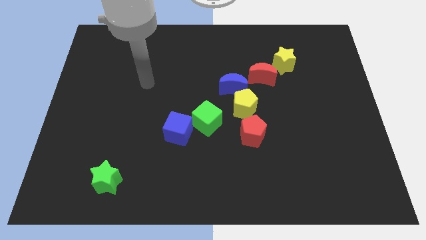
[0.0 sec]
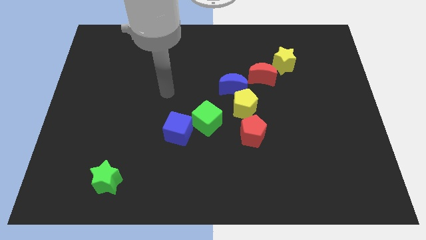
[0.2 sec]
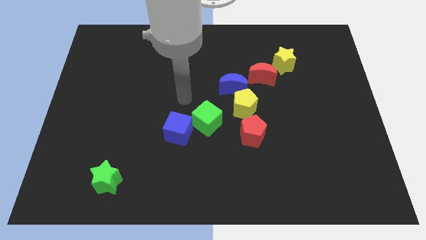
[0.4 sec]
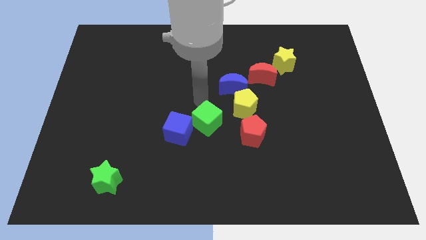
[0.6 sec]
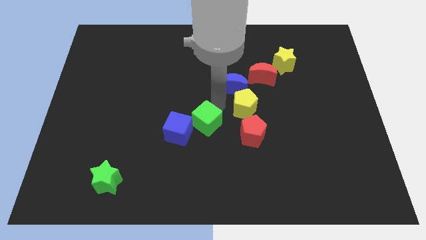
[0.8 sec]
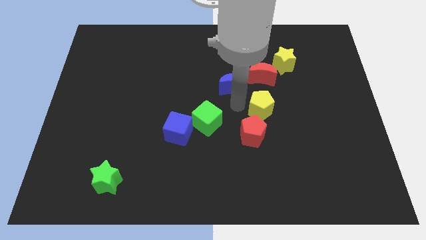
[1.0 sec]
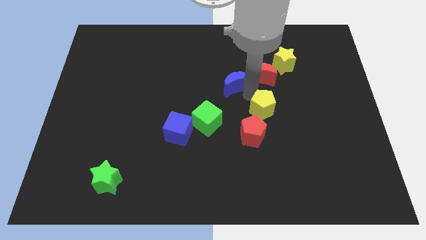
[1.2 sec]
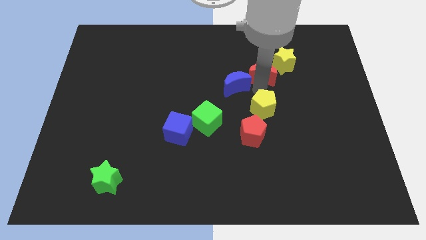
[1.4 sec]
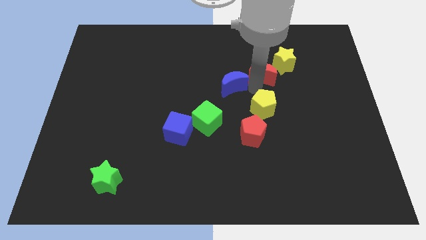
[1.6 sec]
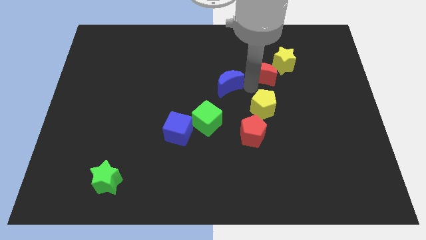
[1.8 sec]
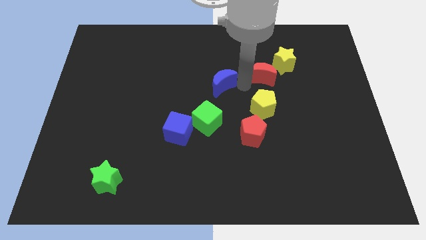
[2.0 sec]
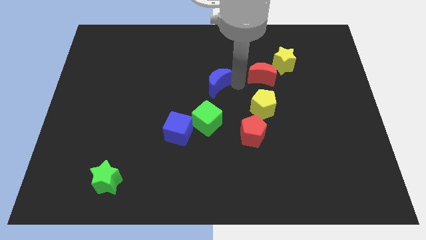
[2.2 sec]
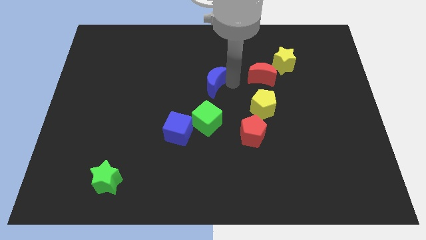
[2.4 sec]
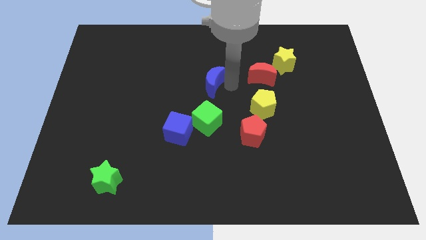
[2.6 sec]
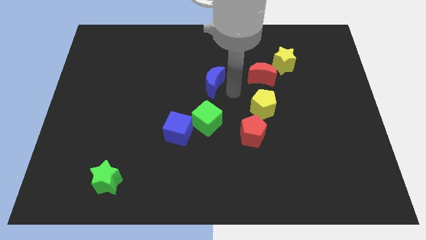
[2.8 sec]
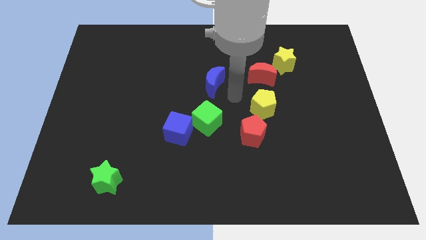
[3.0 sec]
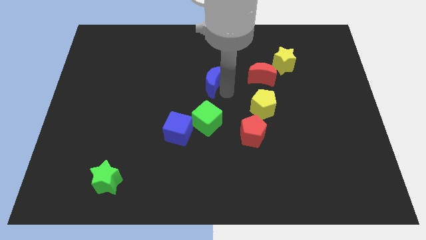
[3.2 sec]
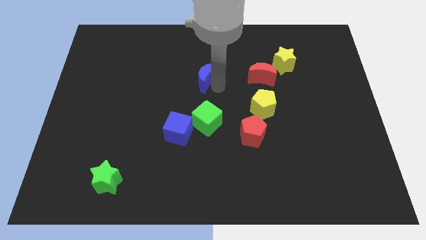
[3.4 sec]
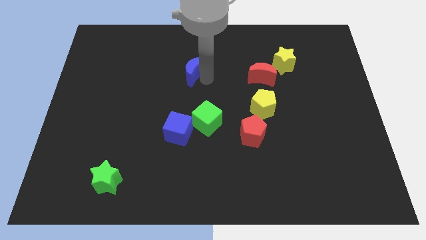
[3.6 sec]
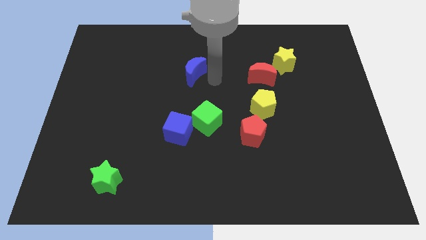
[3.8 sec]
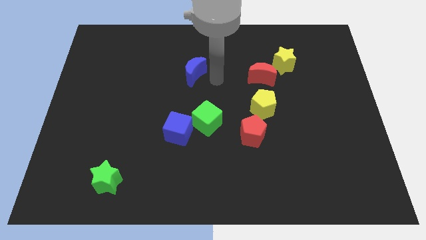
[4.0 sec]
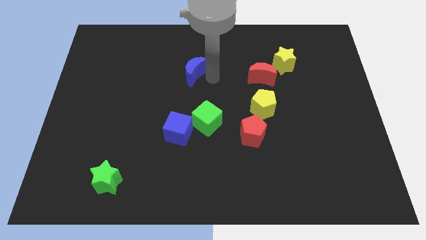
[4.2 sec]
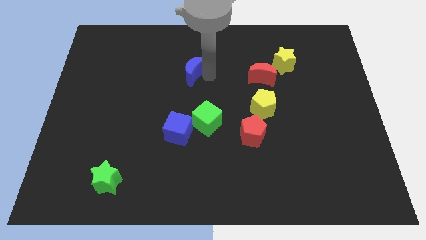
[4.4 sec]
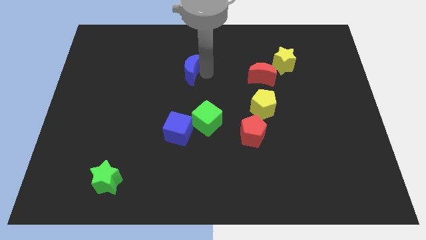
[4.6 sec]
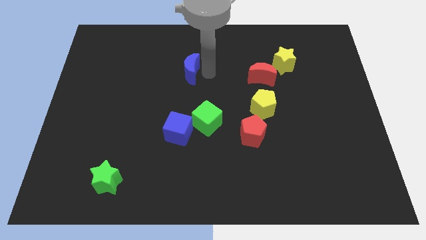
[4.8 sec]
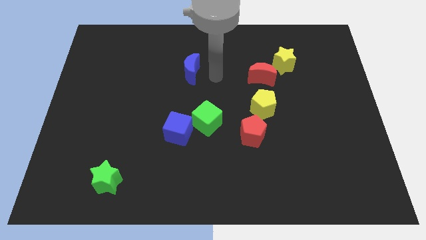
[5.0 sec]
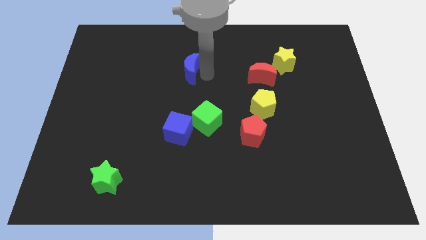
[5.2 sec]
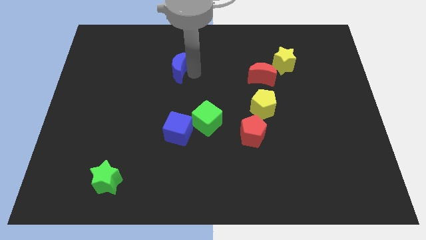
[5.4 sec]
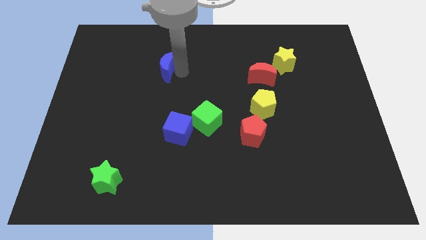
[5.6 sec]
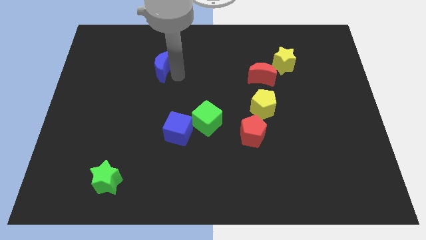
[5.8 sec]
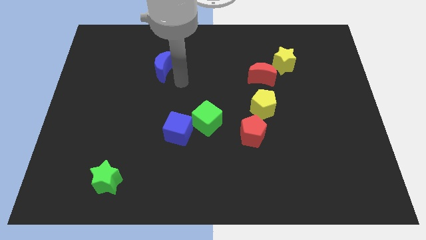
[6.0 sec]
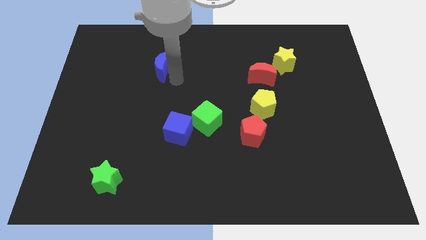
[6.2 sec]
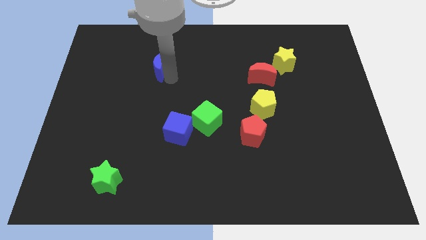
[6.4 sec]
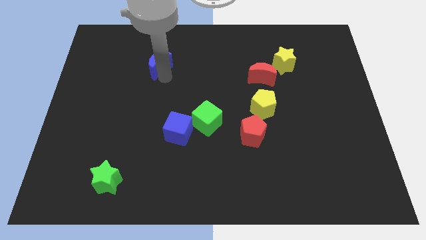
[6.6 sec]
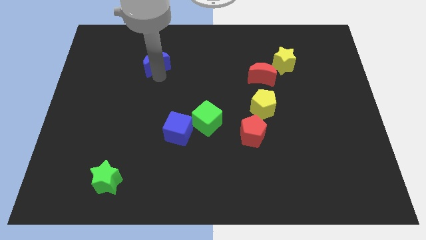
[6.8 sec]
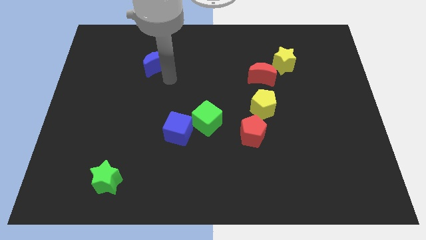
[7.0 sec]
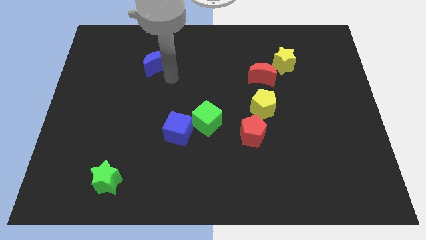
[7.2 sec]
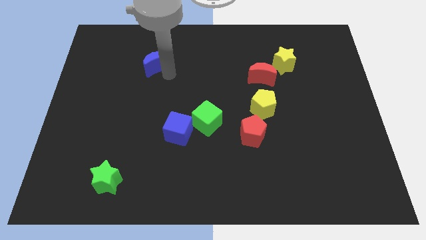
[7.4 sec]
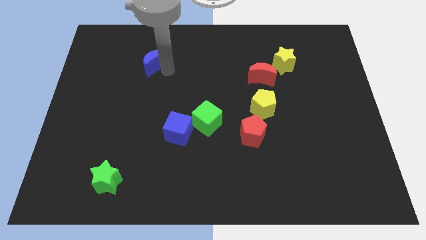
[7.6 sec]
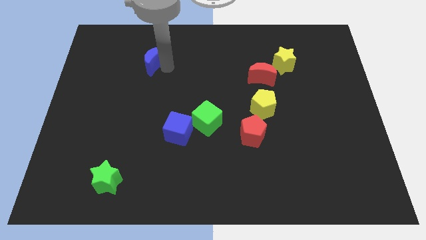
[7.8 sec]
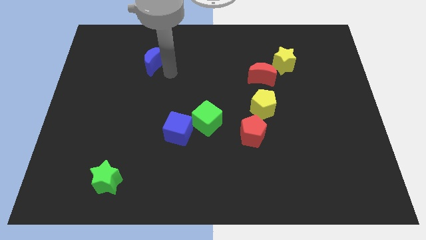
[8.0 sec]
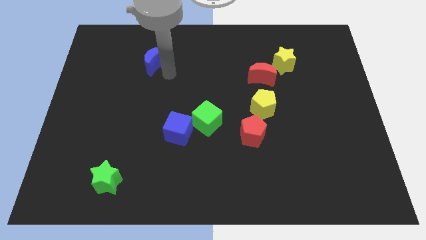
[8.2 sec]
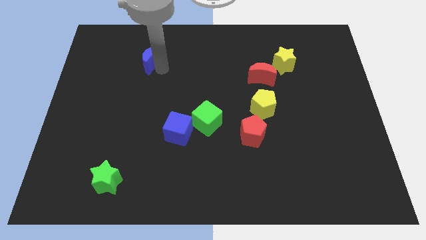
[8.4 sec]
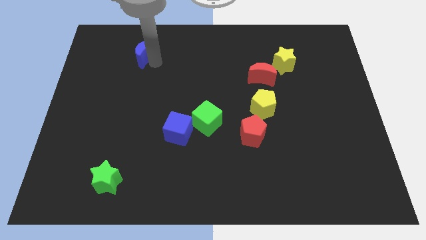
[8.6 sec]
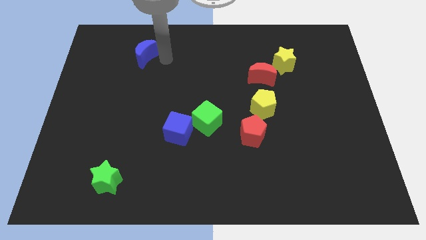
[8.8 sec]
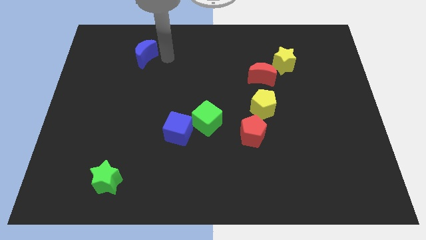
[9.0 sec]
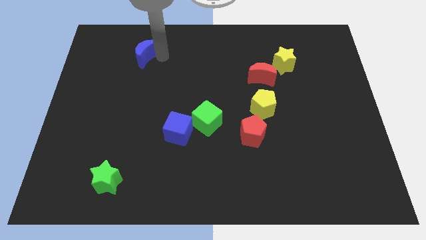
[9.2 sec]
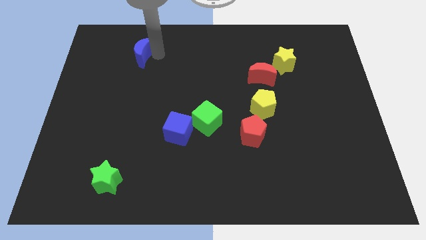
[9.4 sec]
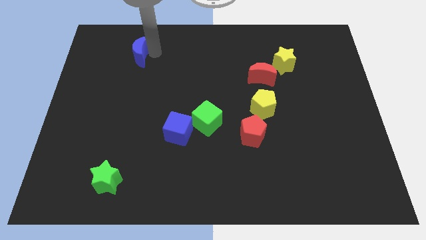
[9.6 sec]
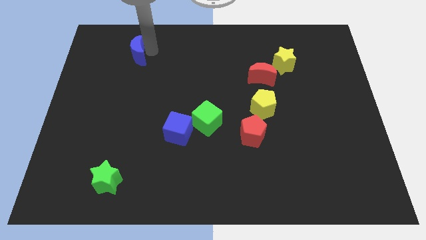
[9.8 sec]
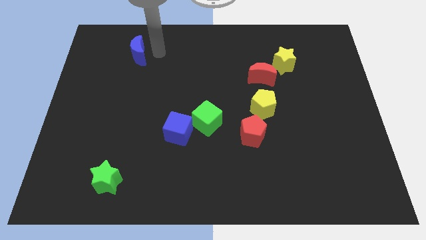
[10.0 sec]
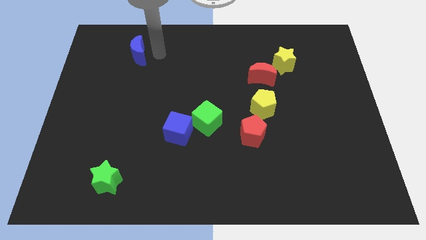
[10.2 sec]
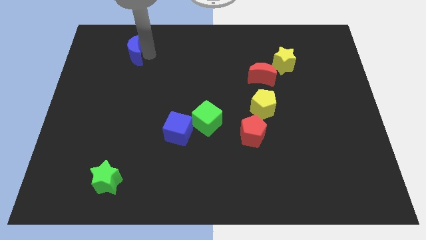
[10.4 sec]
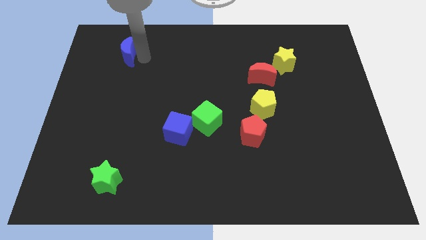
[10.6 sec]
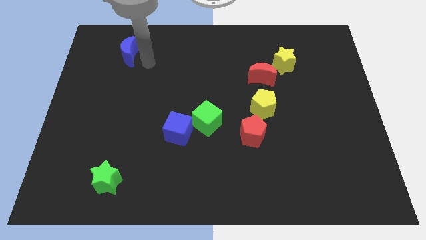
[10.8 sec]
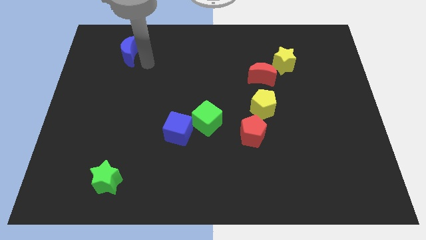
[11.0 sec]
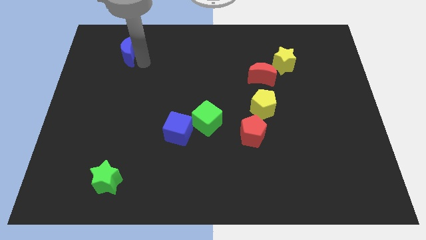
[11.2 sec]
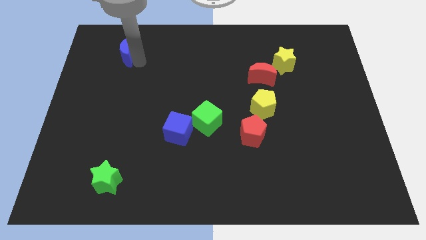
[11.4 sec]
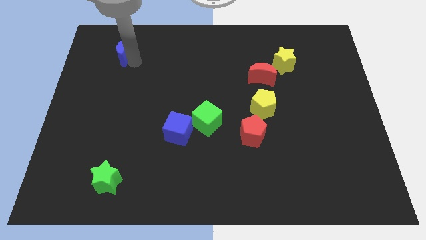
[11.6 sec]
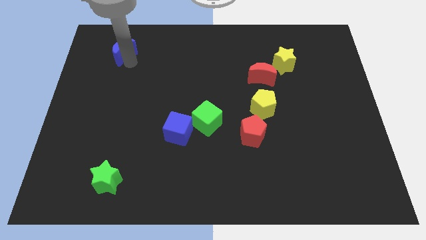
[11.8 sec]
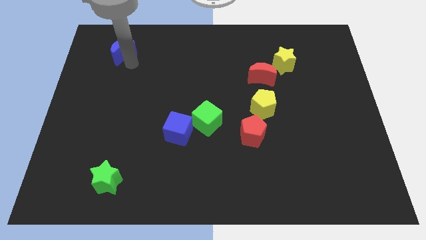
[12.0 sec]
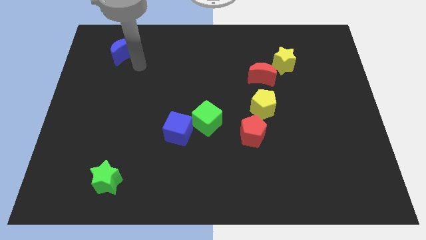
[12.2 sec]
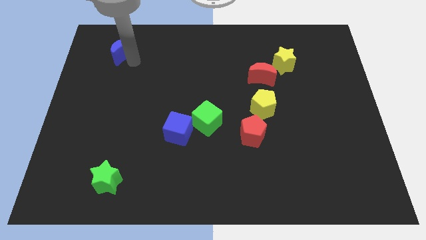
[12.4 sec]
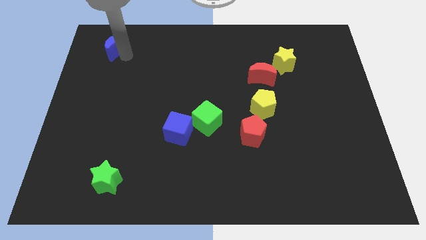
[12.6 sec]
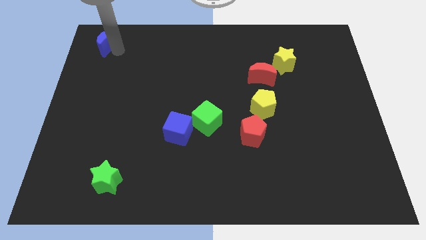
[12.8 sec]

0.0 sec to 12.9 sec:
push the blue moon to the top left corner

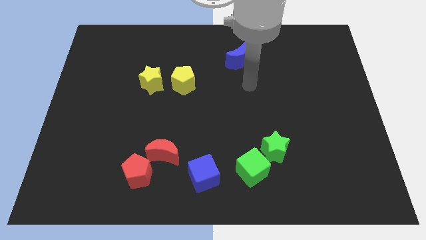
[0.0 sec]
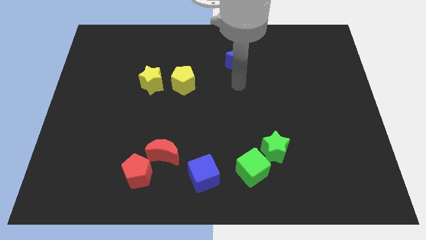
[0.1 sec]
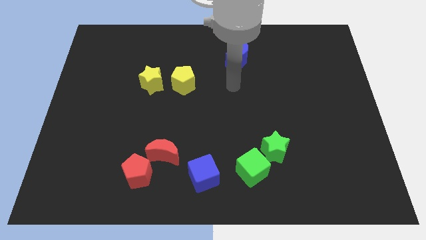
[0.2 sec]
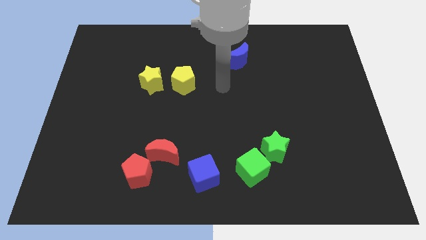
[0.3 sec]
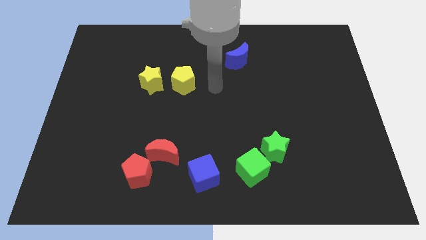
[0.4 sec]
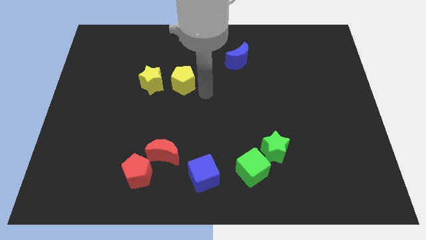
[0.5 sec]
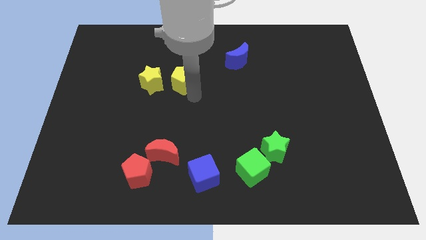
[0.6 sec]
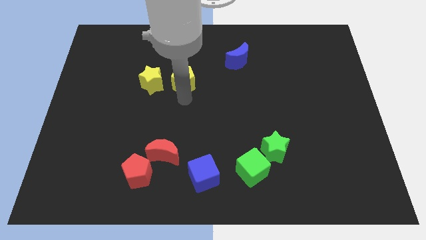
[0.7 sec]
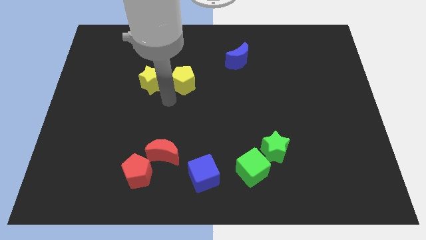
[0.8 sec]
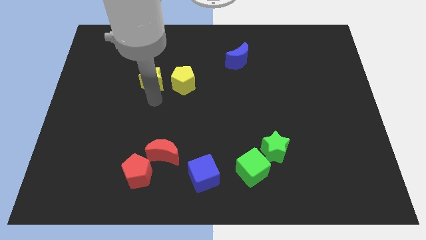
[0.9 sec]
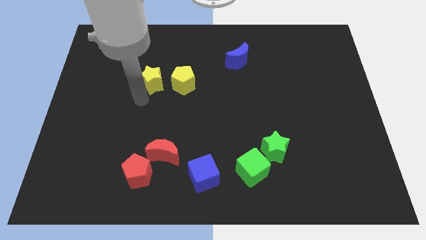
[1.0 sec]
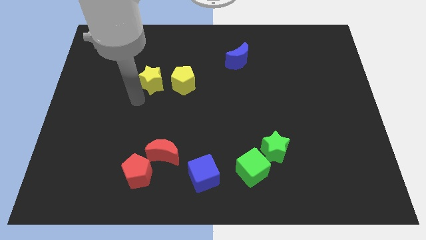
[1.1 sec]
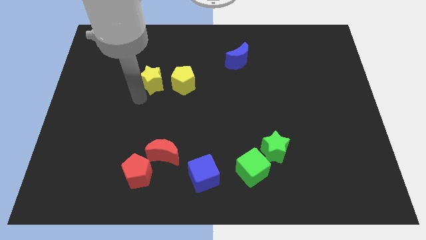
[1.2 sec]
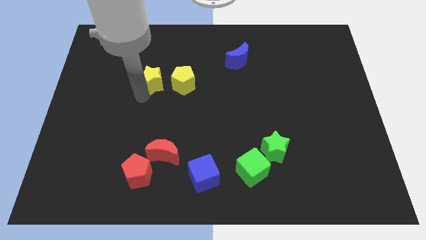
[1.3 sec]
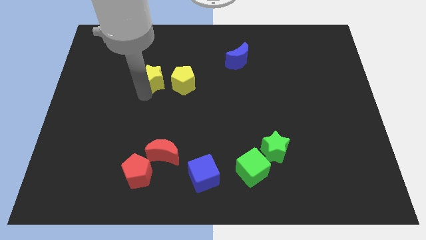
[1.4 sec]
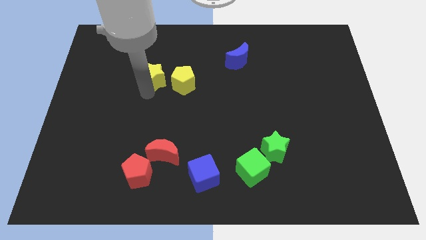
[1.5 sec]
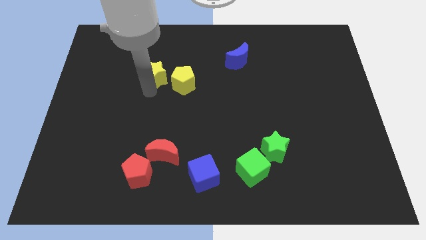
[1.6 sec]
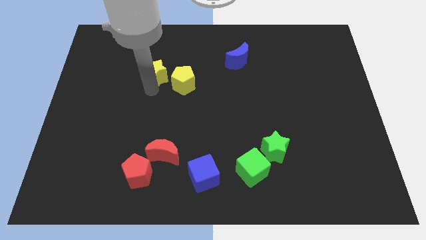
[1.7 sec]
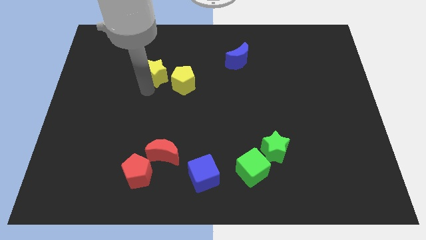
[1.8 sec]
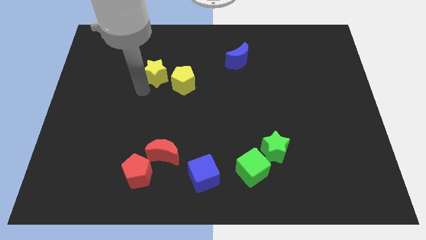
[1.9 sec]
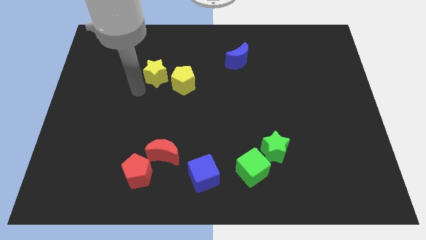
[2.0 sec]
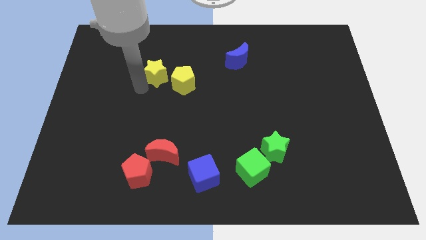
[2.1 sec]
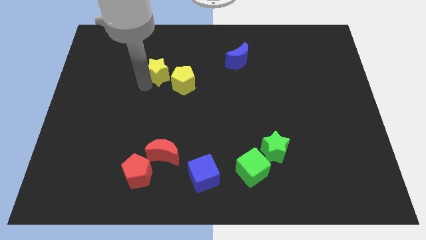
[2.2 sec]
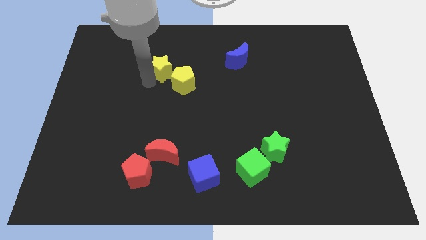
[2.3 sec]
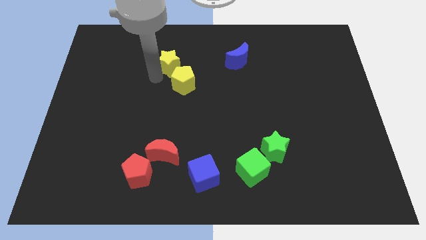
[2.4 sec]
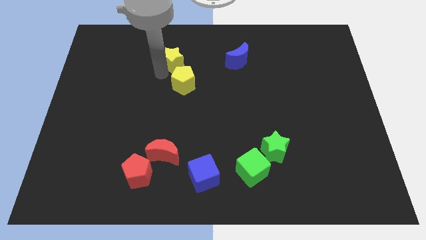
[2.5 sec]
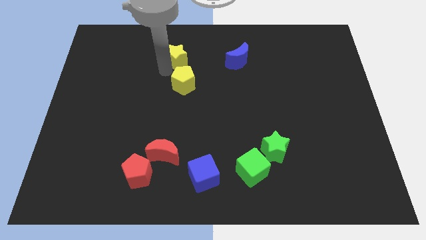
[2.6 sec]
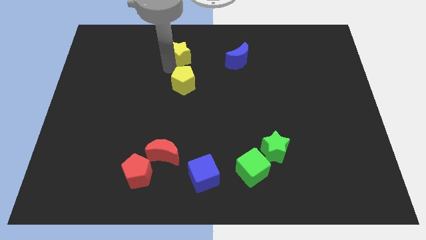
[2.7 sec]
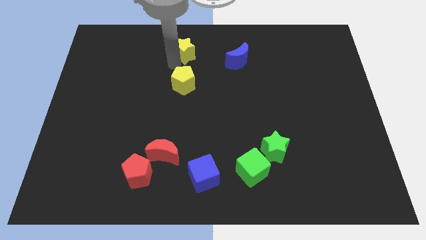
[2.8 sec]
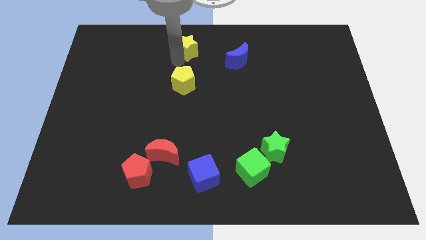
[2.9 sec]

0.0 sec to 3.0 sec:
move the yellow star to the top side
